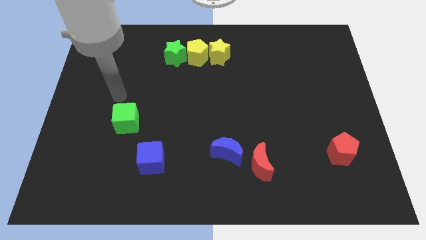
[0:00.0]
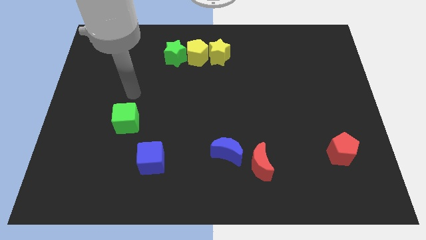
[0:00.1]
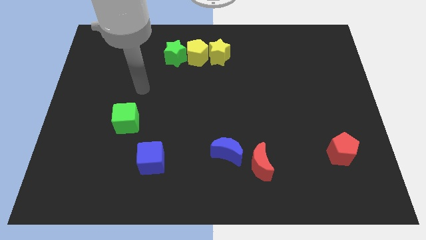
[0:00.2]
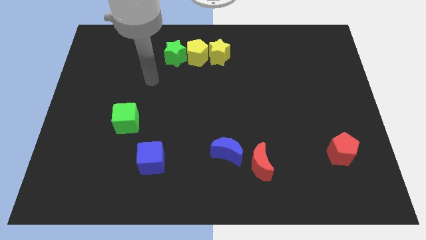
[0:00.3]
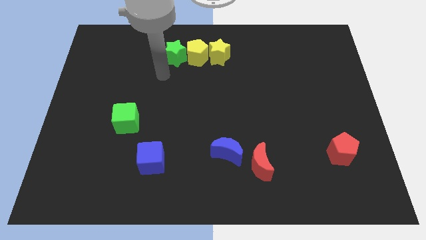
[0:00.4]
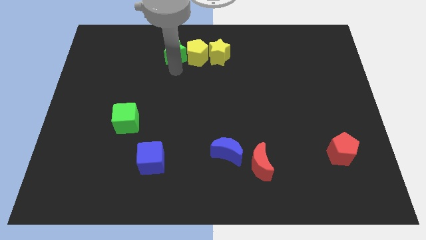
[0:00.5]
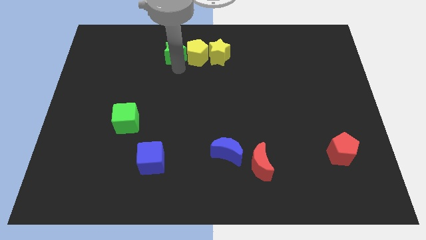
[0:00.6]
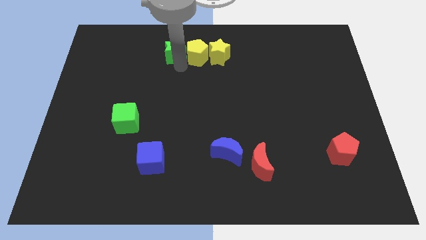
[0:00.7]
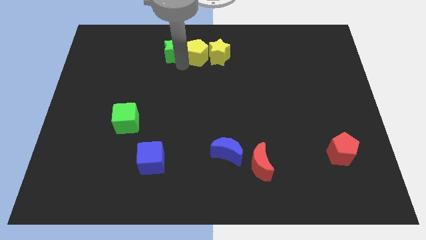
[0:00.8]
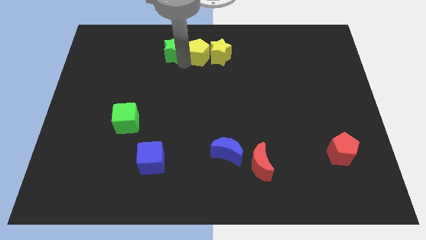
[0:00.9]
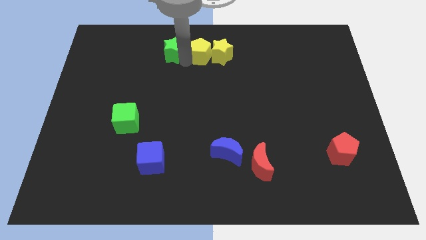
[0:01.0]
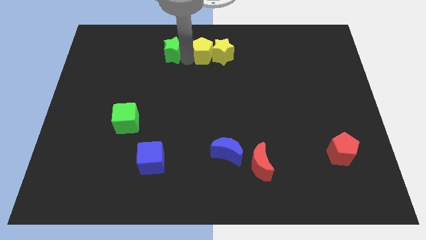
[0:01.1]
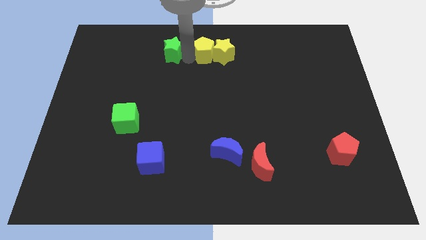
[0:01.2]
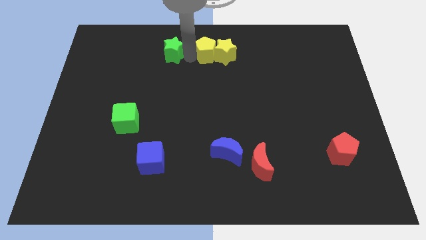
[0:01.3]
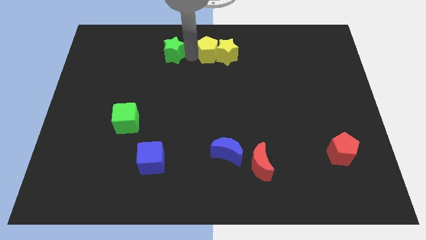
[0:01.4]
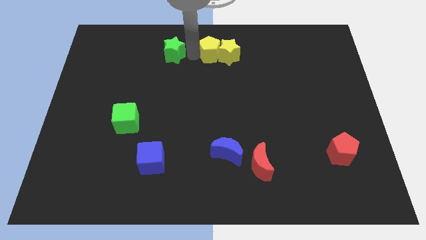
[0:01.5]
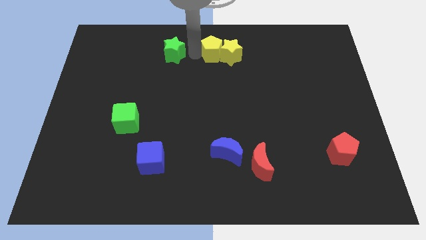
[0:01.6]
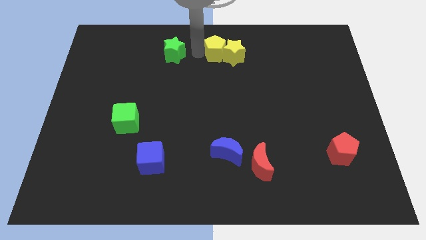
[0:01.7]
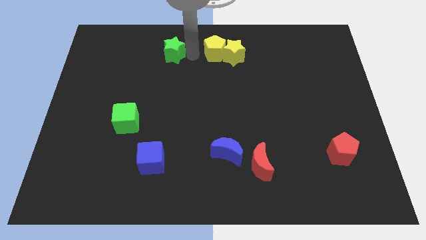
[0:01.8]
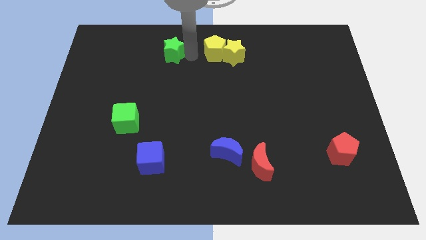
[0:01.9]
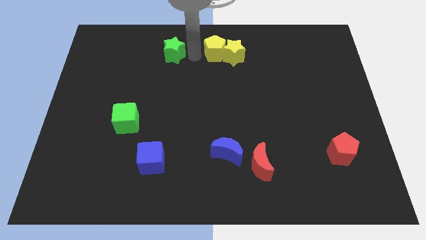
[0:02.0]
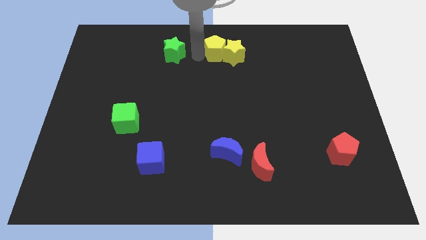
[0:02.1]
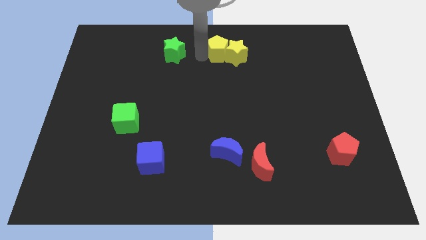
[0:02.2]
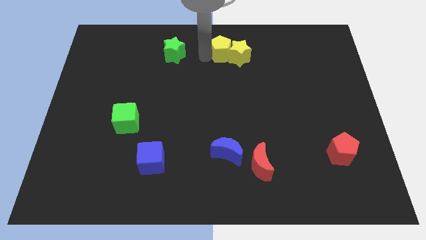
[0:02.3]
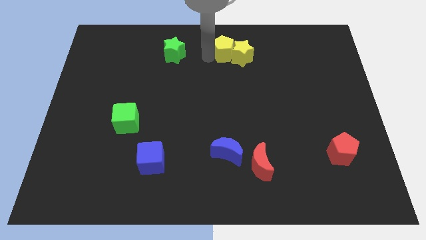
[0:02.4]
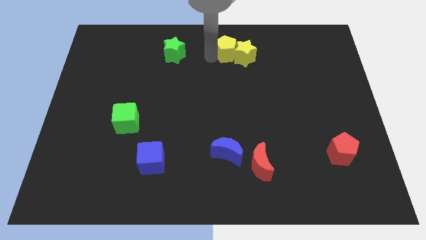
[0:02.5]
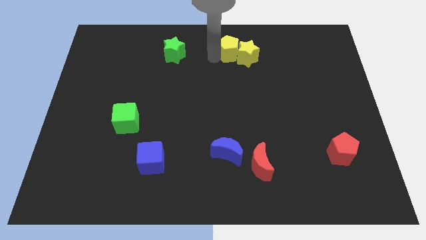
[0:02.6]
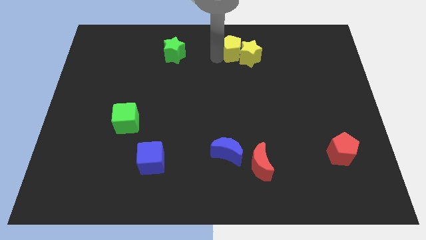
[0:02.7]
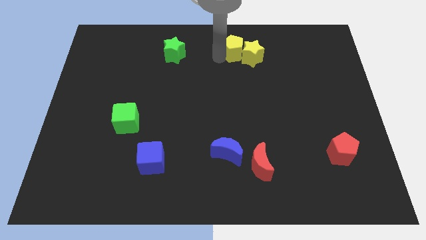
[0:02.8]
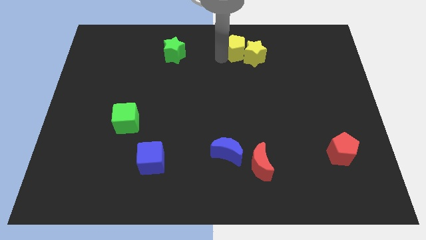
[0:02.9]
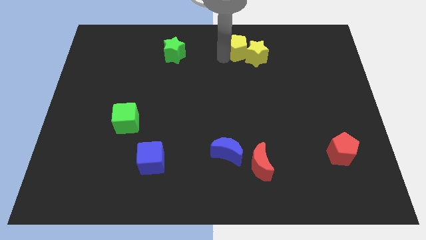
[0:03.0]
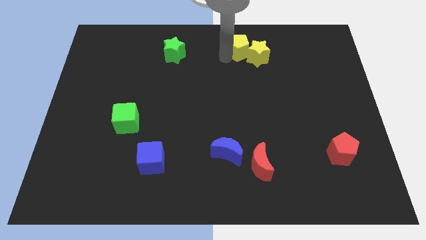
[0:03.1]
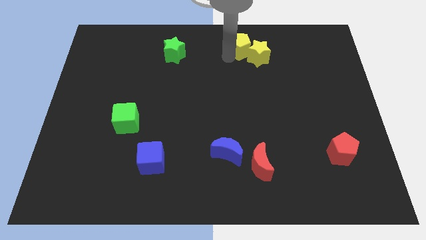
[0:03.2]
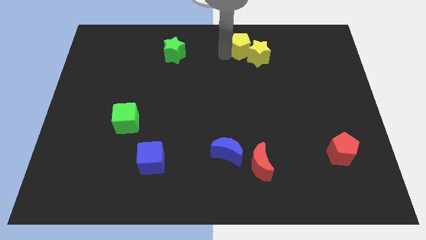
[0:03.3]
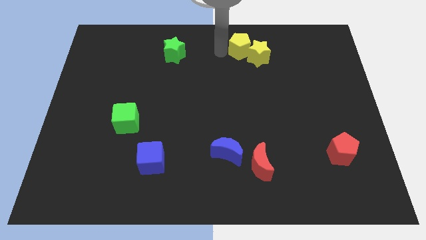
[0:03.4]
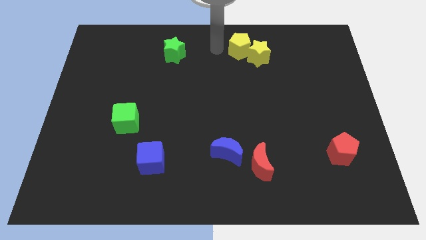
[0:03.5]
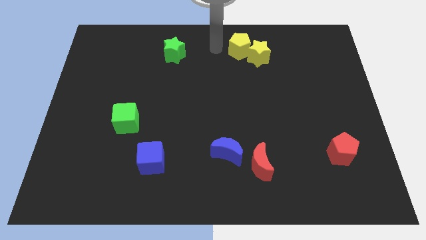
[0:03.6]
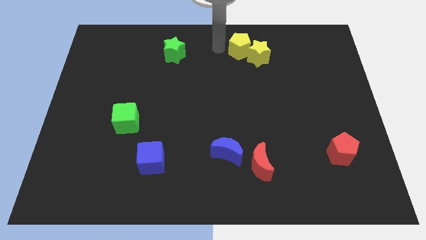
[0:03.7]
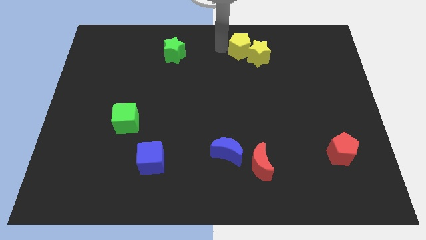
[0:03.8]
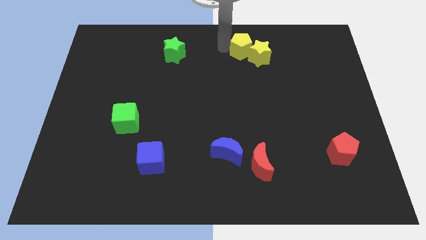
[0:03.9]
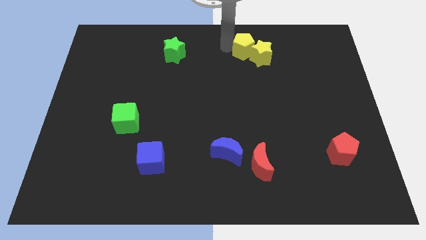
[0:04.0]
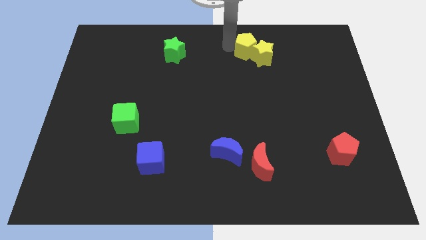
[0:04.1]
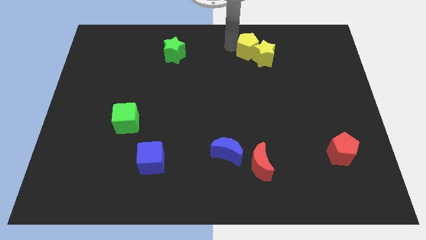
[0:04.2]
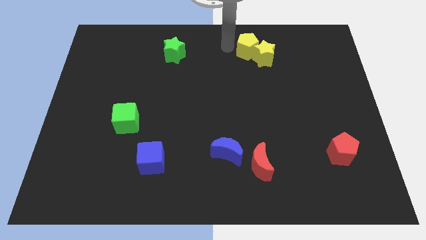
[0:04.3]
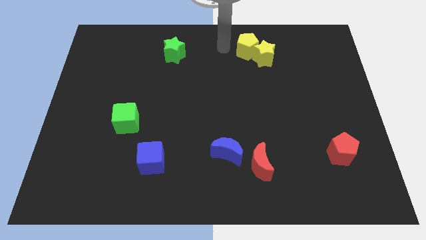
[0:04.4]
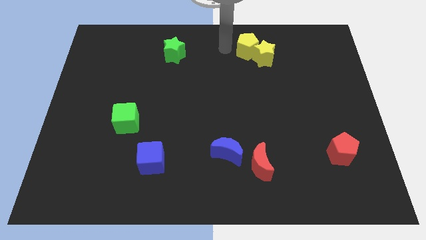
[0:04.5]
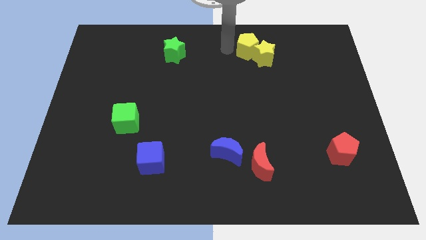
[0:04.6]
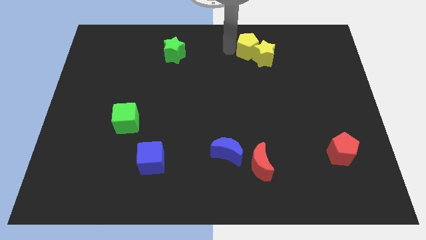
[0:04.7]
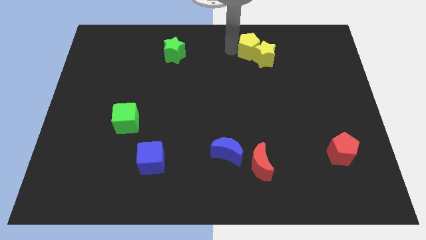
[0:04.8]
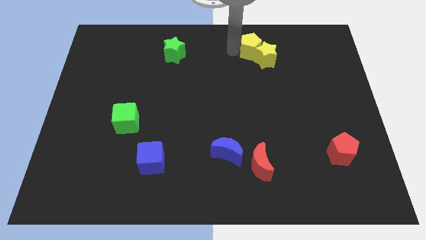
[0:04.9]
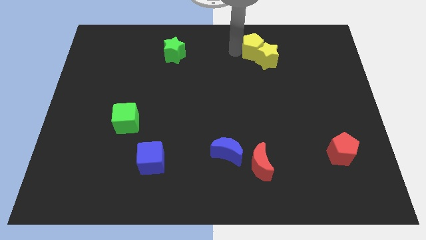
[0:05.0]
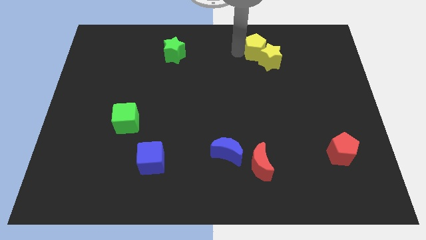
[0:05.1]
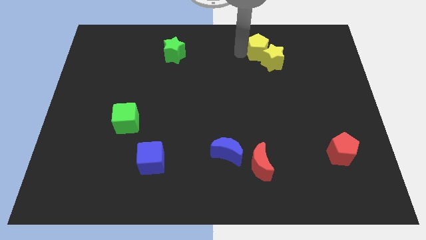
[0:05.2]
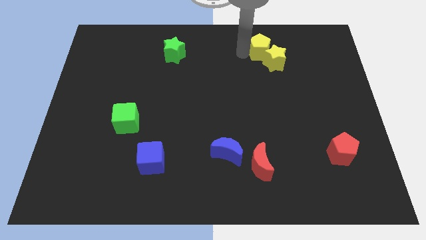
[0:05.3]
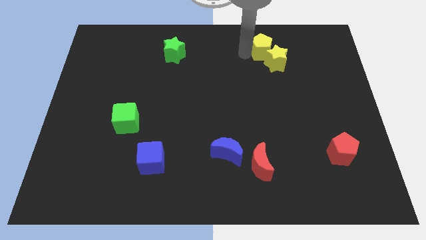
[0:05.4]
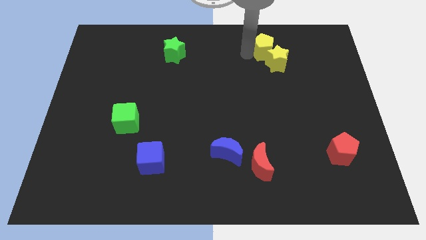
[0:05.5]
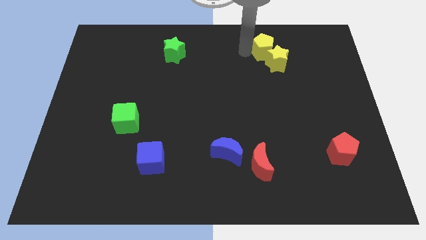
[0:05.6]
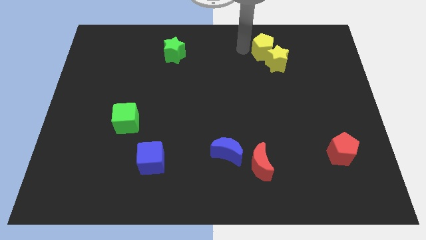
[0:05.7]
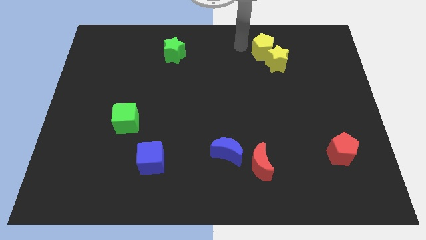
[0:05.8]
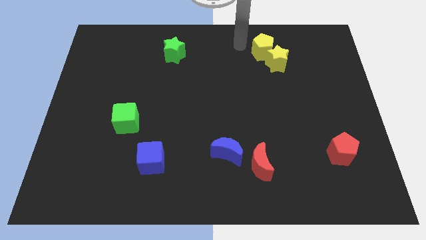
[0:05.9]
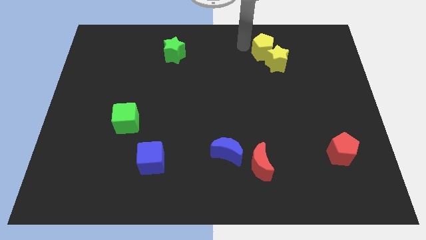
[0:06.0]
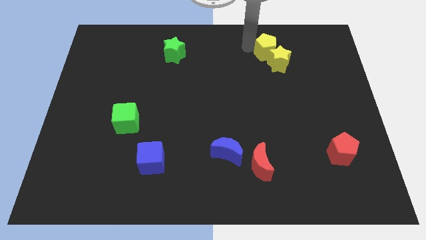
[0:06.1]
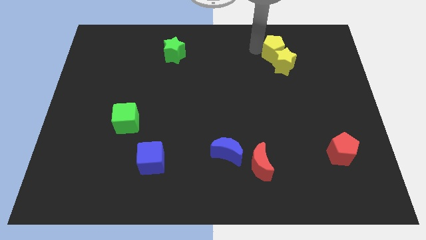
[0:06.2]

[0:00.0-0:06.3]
push the yellow pentagon right

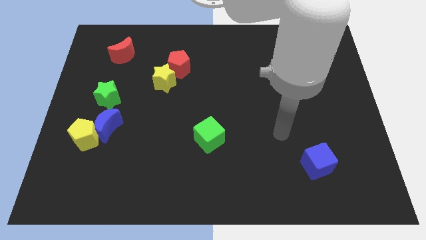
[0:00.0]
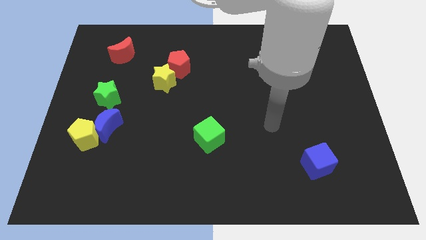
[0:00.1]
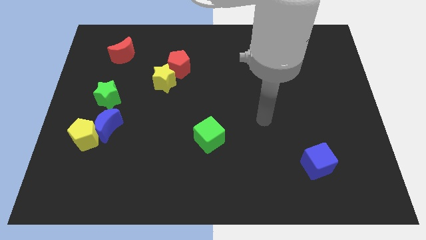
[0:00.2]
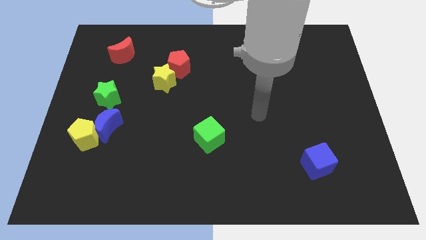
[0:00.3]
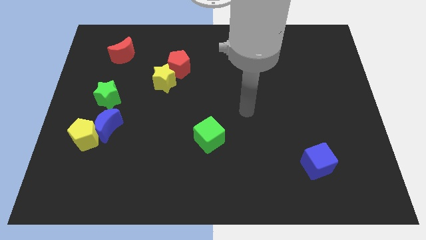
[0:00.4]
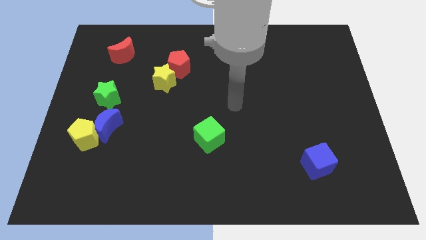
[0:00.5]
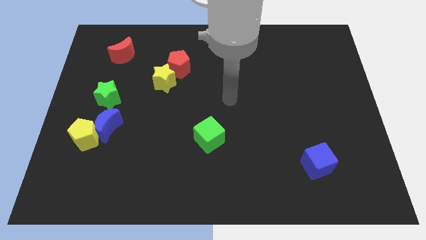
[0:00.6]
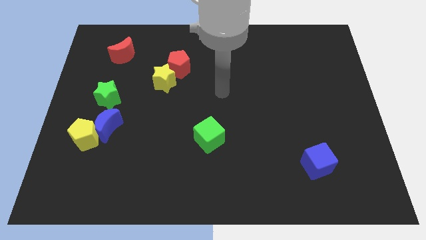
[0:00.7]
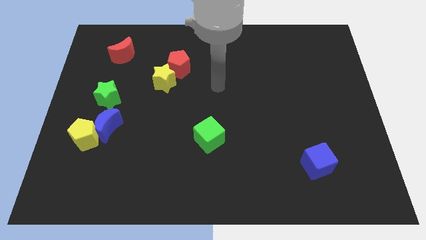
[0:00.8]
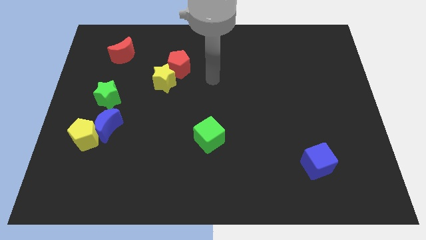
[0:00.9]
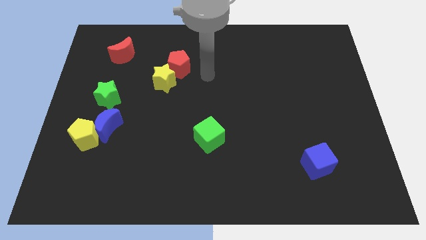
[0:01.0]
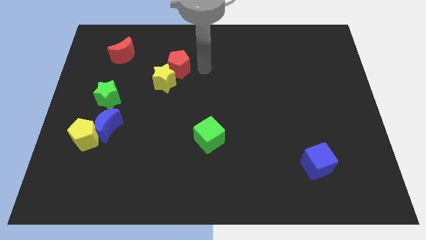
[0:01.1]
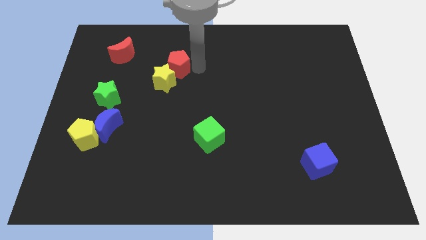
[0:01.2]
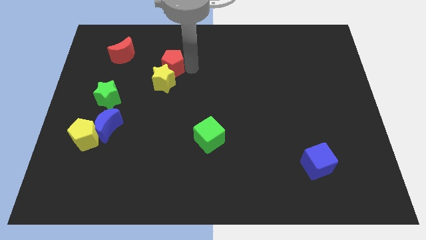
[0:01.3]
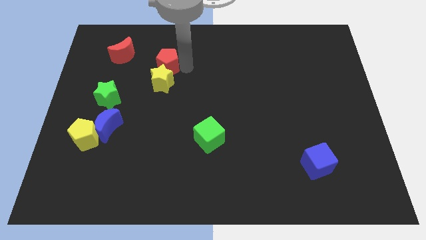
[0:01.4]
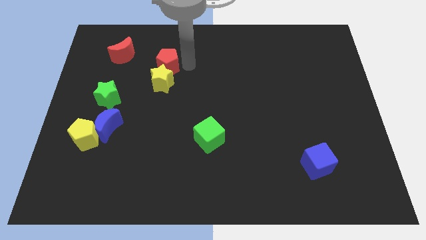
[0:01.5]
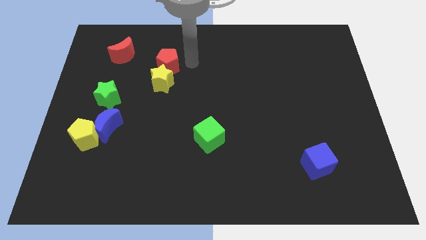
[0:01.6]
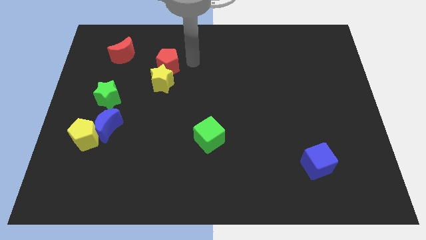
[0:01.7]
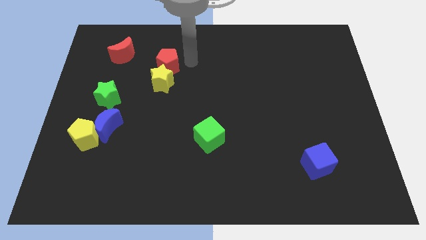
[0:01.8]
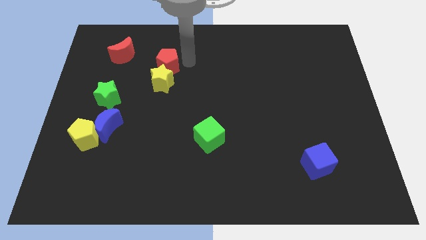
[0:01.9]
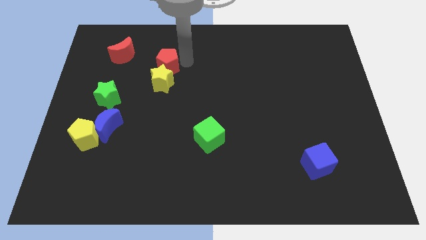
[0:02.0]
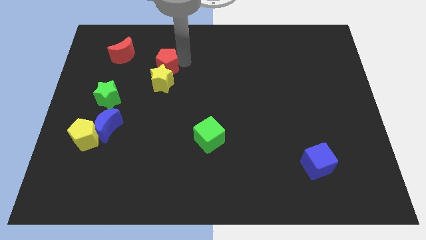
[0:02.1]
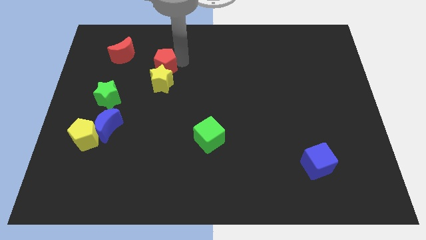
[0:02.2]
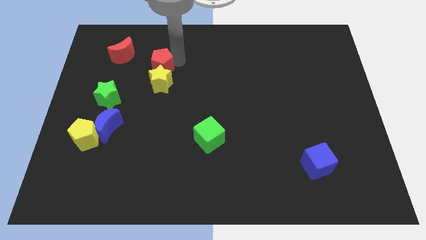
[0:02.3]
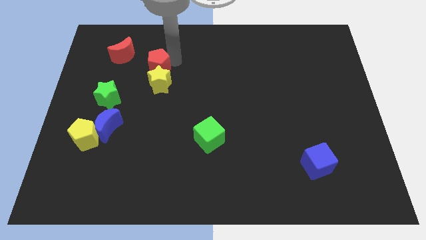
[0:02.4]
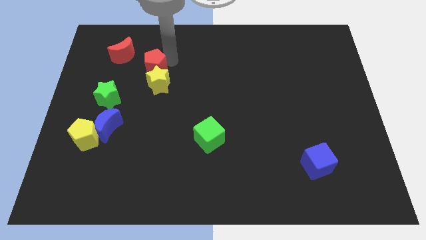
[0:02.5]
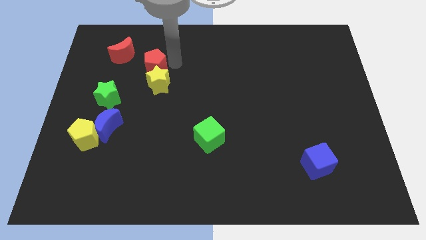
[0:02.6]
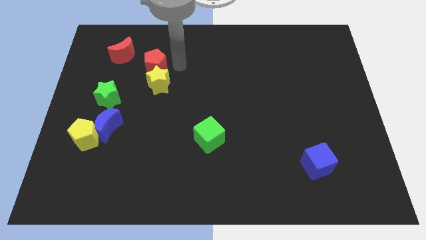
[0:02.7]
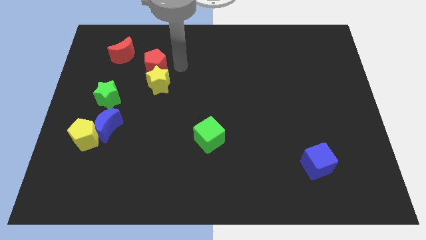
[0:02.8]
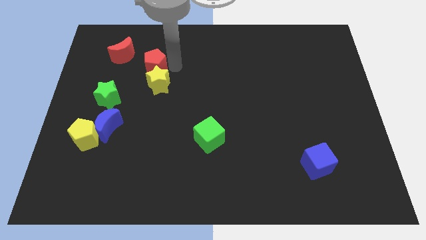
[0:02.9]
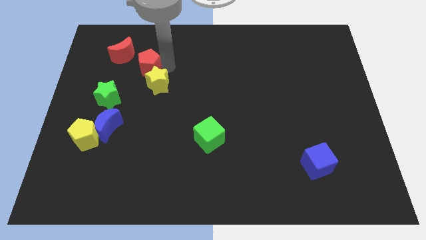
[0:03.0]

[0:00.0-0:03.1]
slide the red pentagon somewhat to the left
